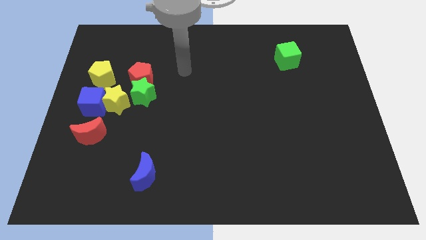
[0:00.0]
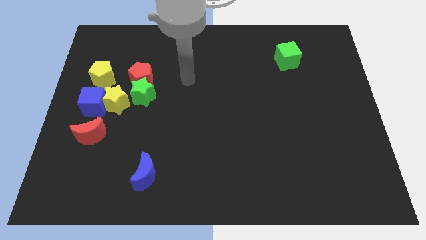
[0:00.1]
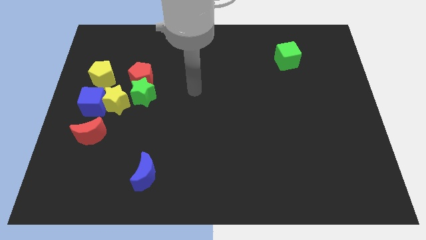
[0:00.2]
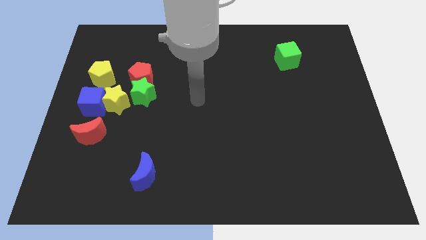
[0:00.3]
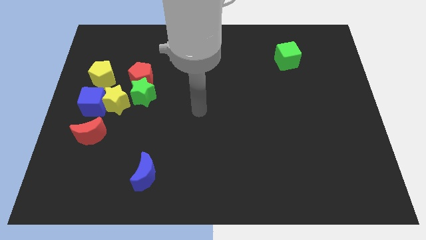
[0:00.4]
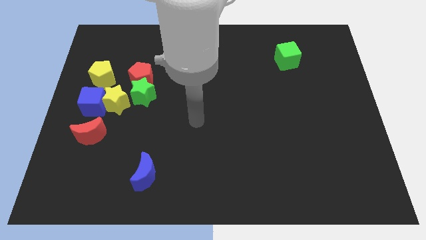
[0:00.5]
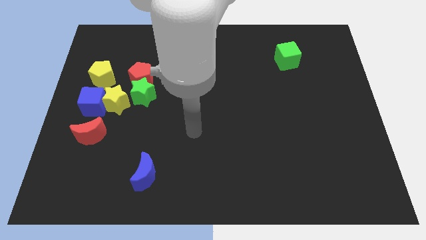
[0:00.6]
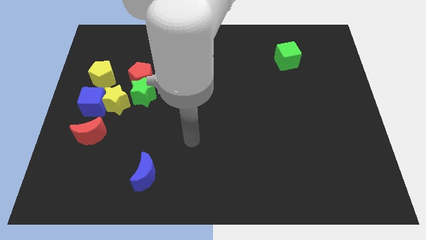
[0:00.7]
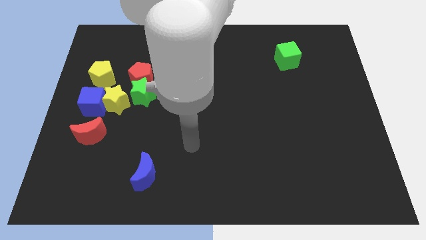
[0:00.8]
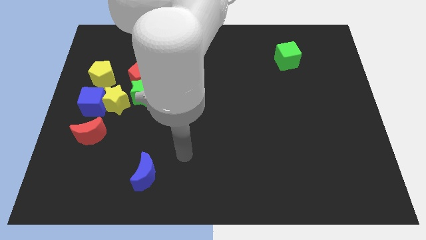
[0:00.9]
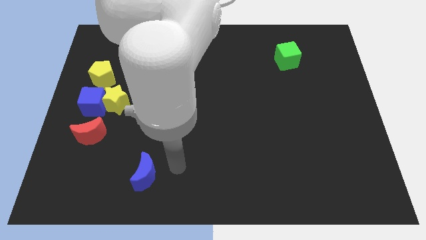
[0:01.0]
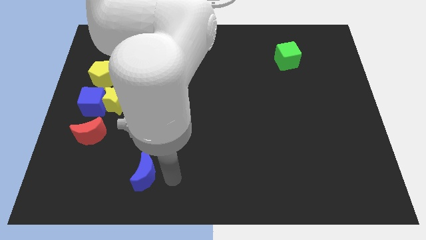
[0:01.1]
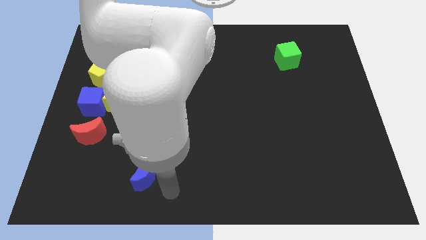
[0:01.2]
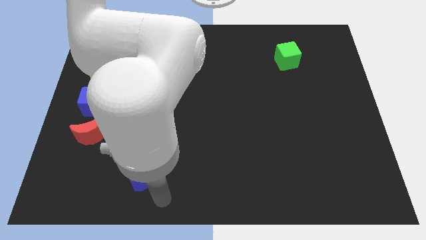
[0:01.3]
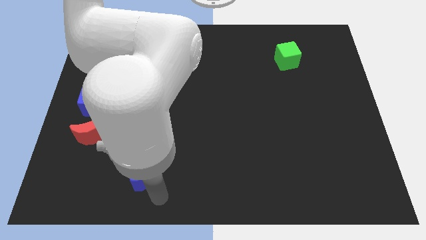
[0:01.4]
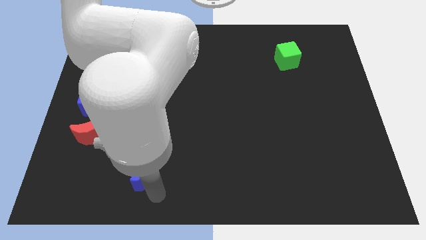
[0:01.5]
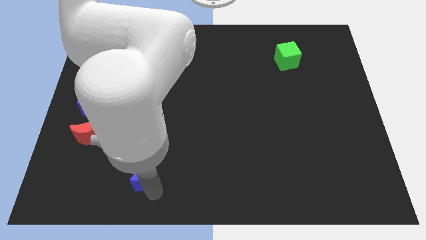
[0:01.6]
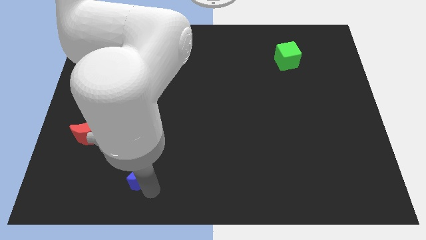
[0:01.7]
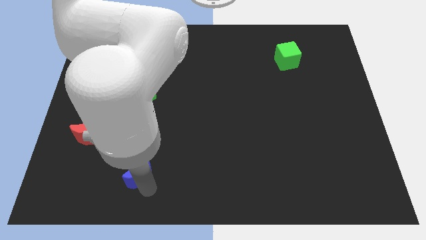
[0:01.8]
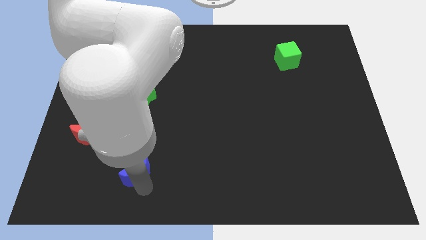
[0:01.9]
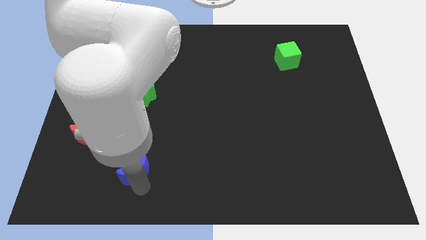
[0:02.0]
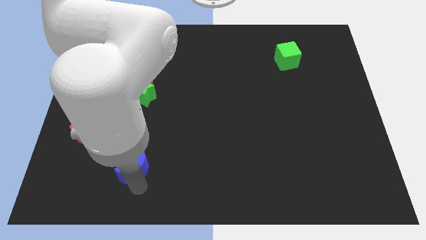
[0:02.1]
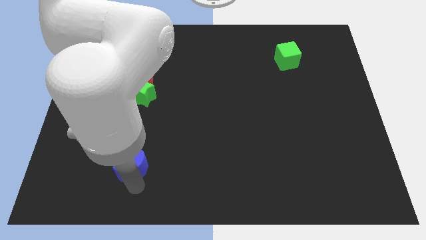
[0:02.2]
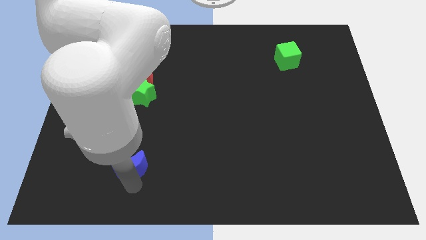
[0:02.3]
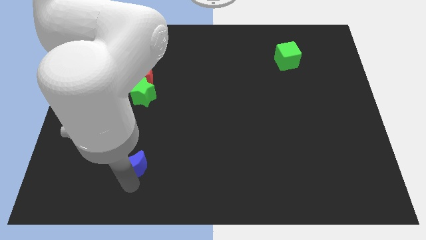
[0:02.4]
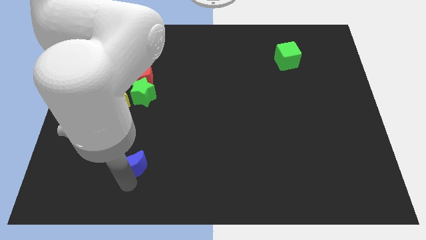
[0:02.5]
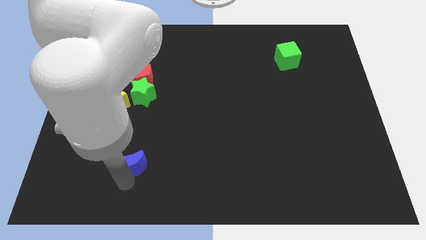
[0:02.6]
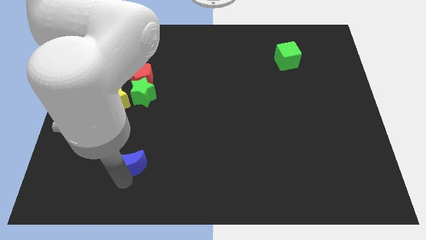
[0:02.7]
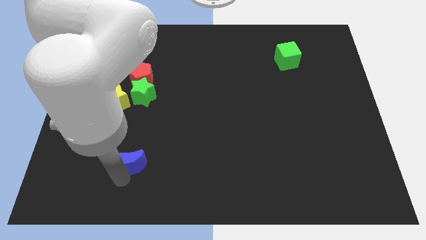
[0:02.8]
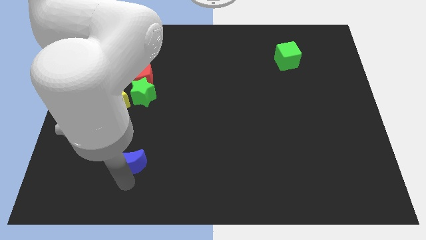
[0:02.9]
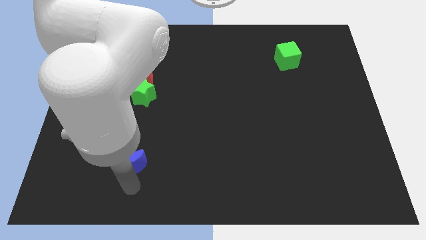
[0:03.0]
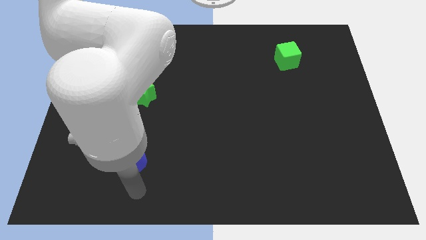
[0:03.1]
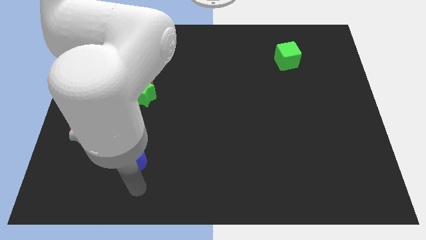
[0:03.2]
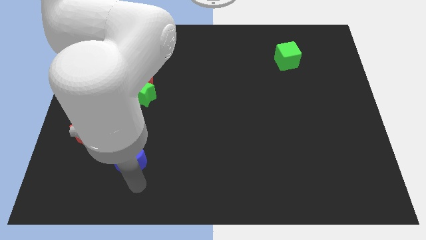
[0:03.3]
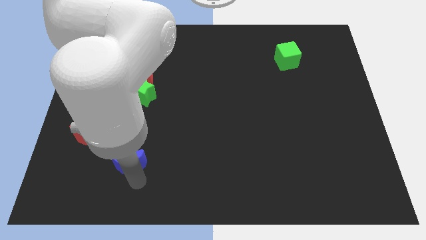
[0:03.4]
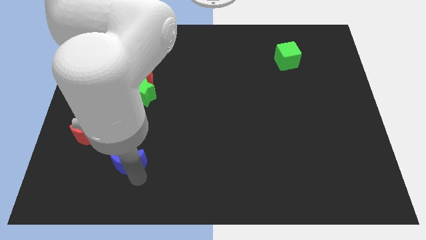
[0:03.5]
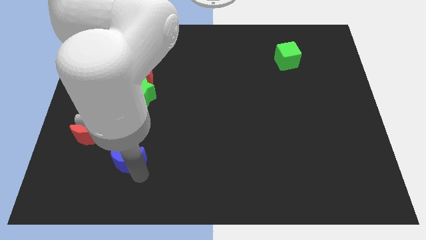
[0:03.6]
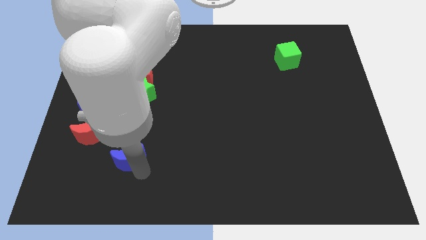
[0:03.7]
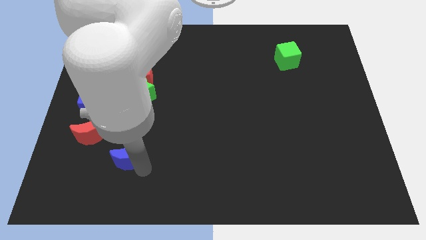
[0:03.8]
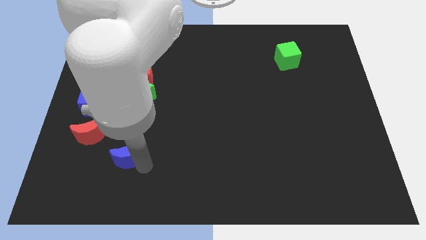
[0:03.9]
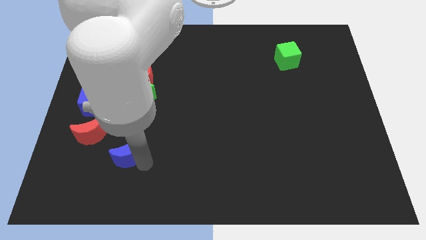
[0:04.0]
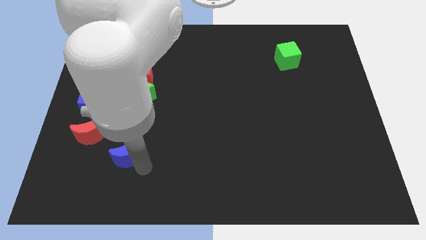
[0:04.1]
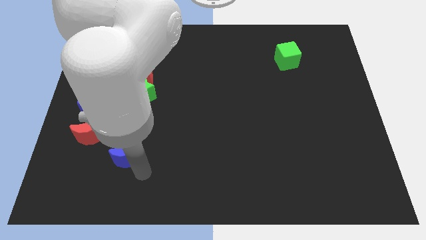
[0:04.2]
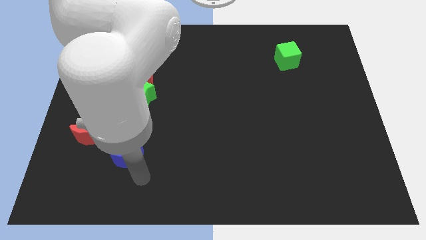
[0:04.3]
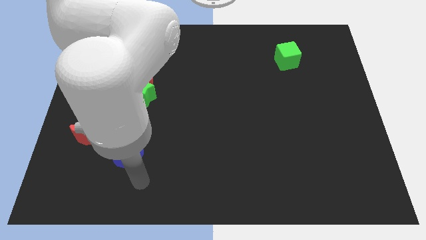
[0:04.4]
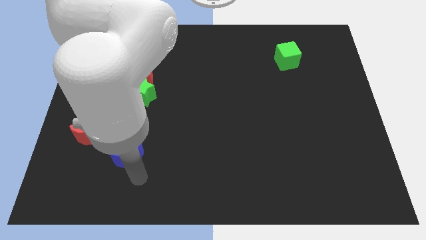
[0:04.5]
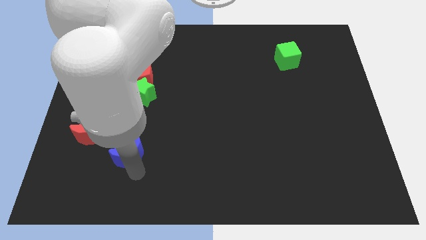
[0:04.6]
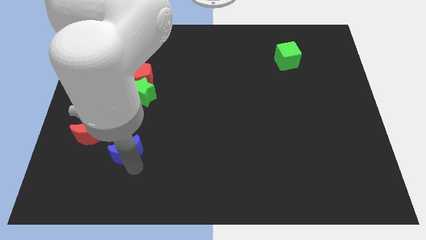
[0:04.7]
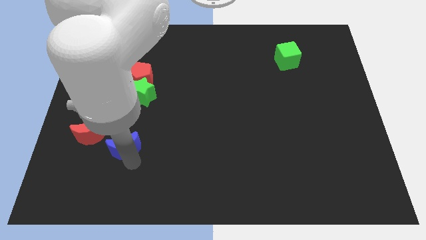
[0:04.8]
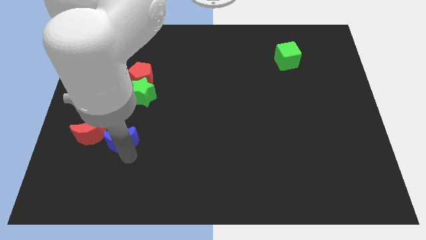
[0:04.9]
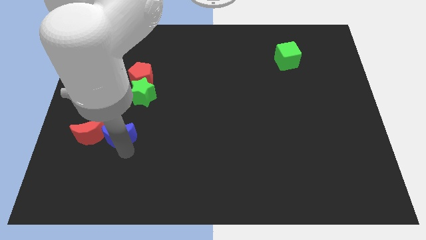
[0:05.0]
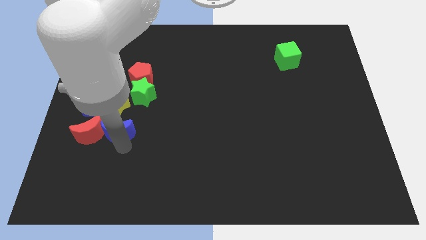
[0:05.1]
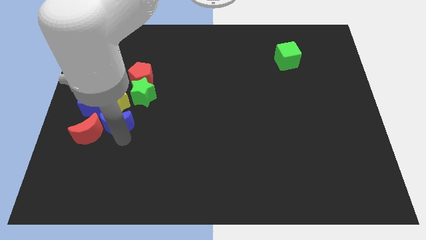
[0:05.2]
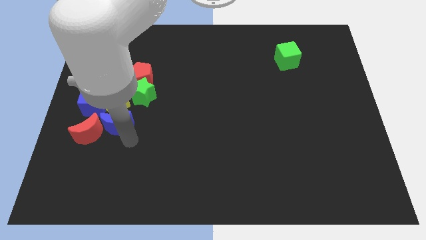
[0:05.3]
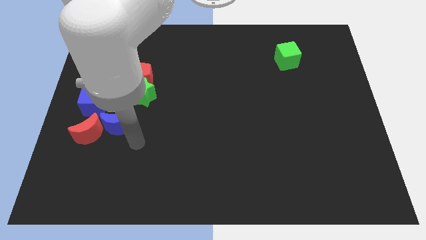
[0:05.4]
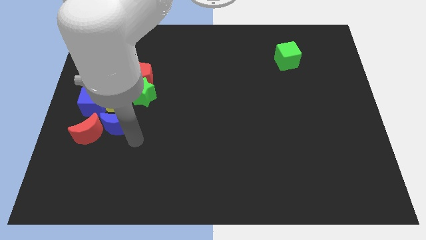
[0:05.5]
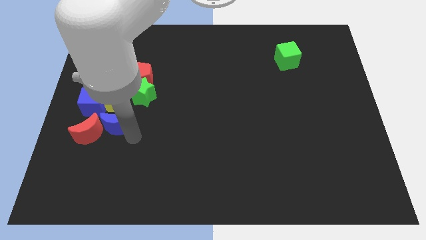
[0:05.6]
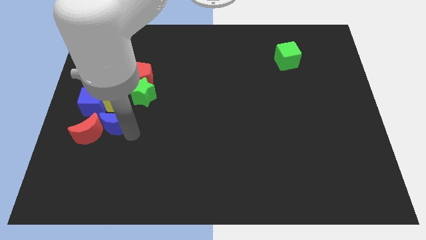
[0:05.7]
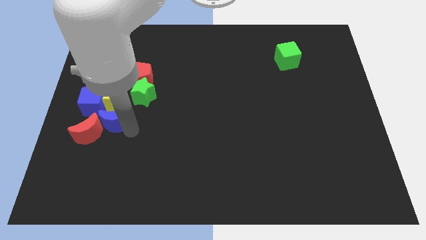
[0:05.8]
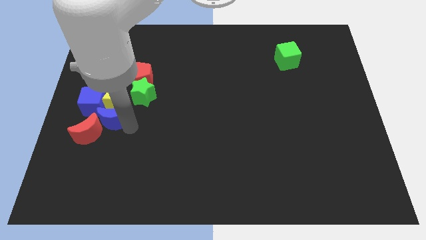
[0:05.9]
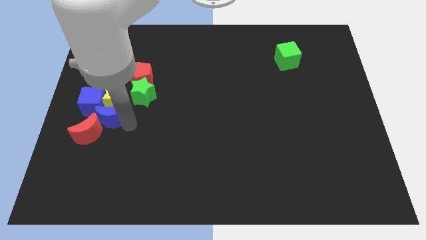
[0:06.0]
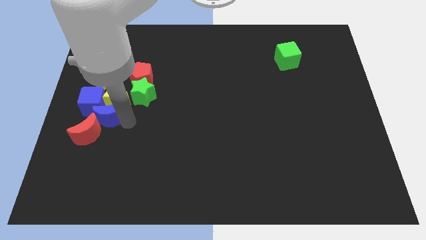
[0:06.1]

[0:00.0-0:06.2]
push the blue moon to the blue cube

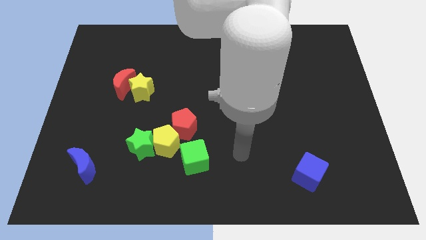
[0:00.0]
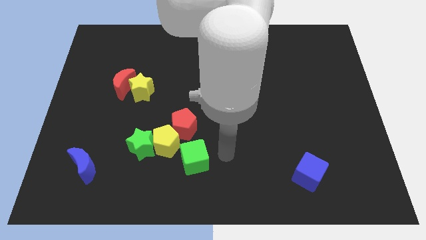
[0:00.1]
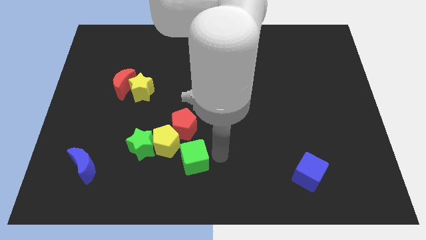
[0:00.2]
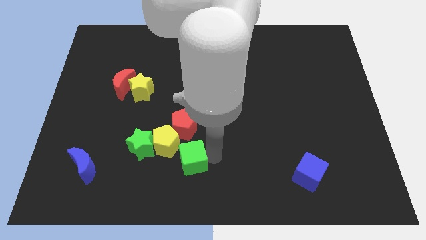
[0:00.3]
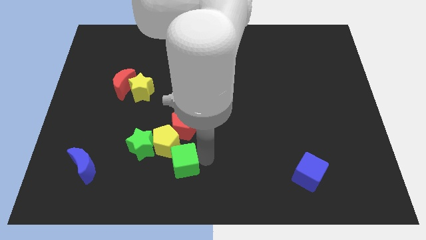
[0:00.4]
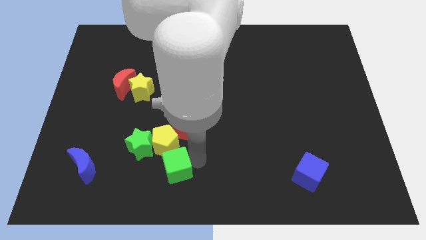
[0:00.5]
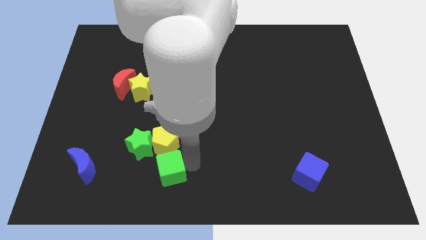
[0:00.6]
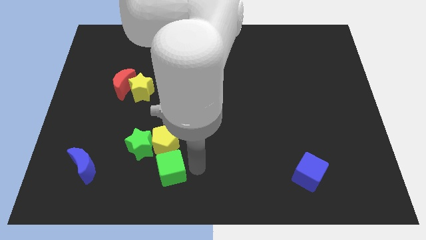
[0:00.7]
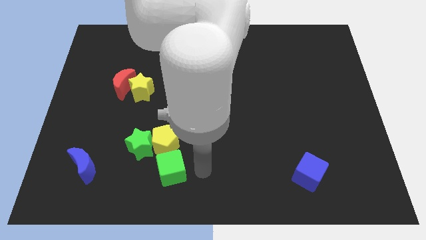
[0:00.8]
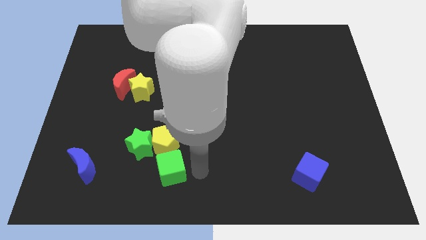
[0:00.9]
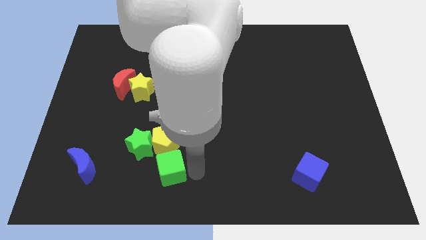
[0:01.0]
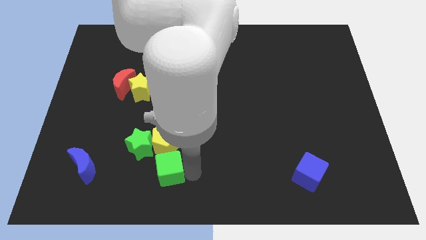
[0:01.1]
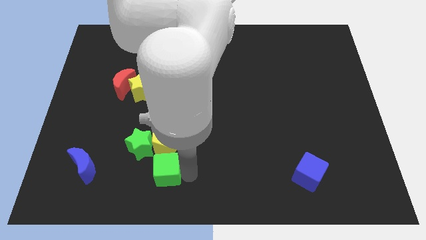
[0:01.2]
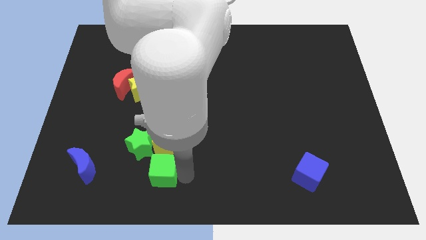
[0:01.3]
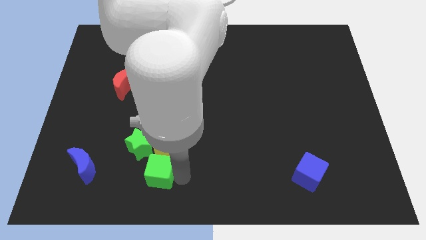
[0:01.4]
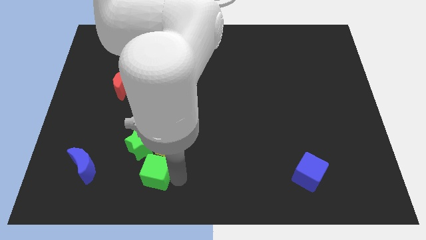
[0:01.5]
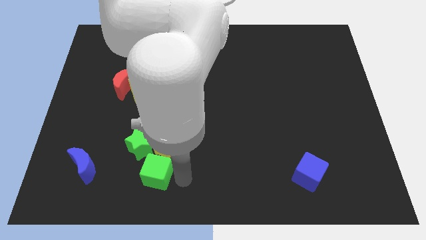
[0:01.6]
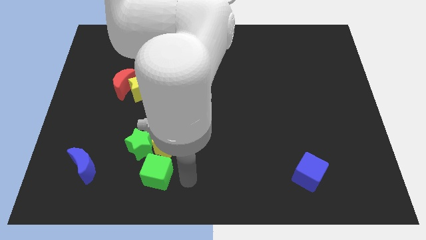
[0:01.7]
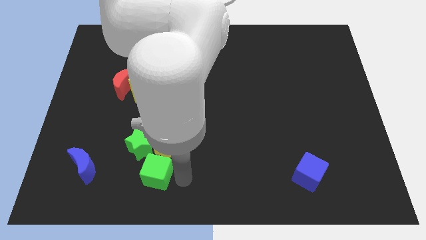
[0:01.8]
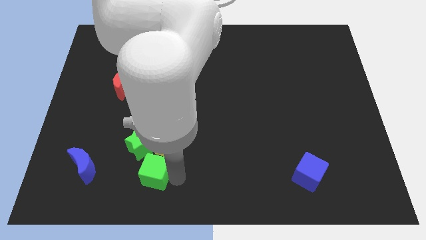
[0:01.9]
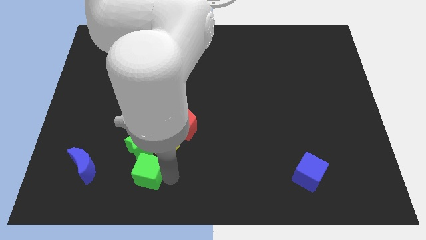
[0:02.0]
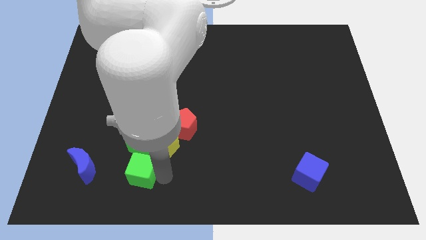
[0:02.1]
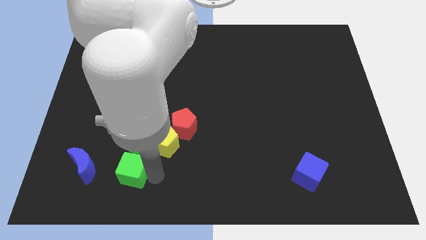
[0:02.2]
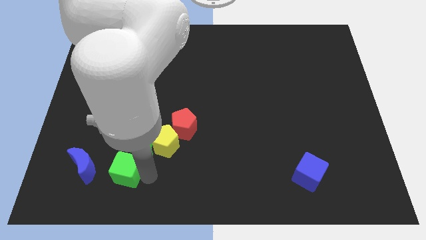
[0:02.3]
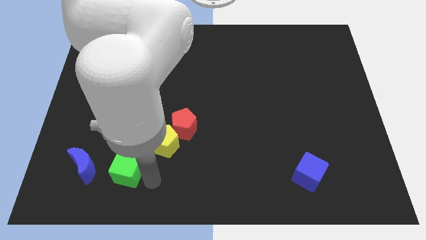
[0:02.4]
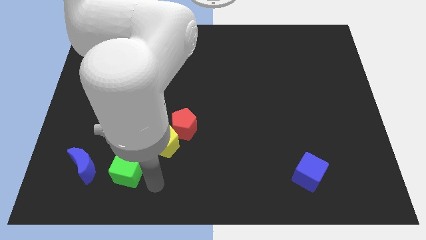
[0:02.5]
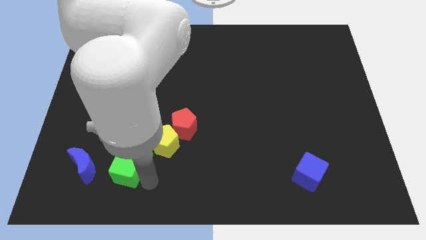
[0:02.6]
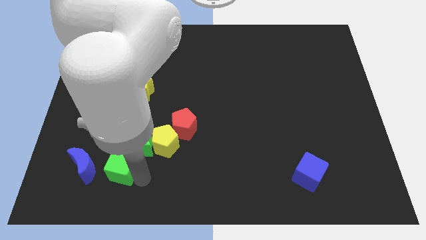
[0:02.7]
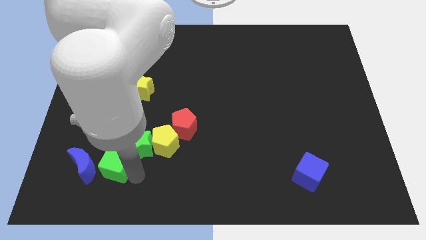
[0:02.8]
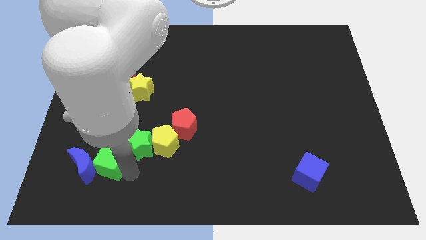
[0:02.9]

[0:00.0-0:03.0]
move the green cube close to the blue moon
